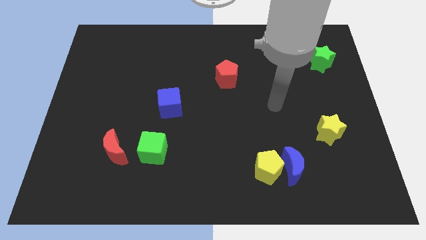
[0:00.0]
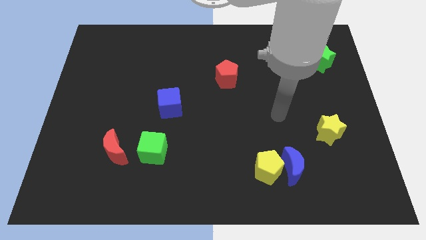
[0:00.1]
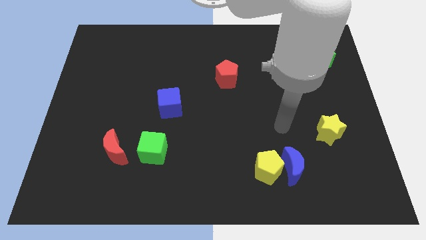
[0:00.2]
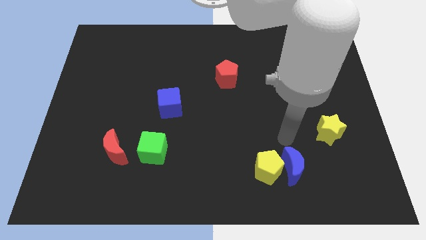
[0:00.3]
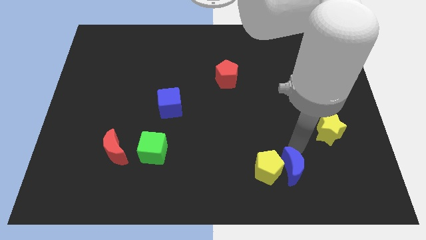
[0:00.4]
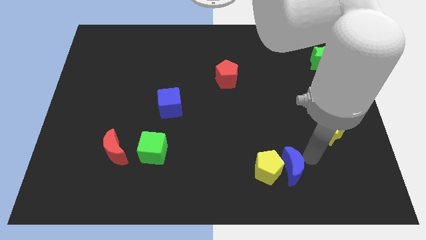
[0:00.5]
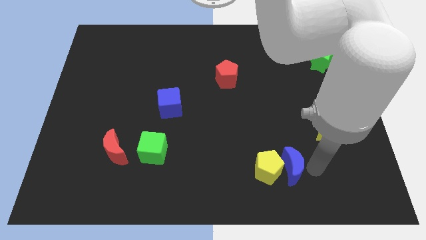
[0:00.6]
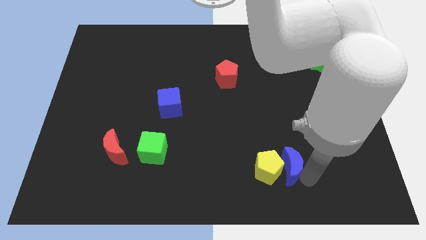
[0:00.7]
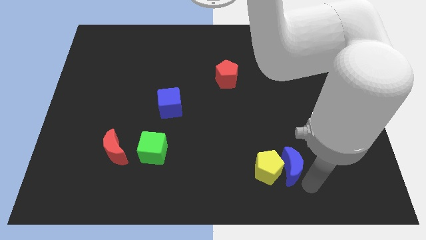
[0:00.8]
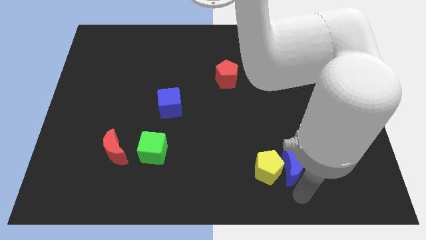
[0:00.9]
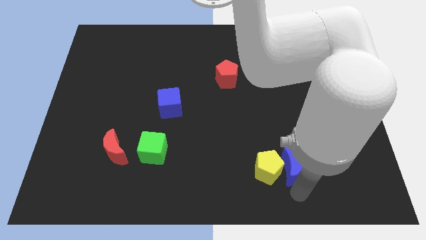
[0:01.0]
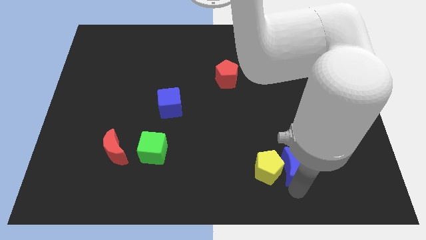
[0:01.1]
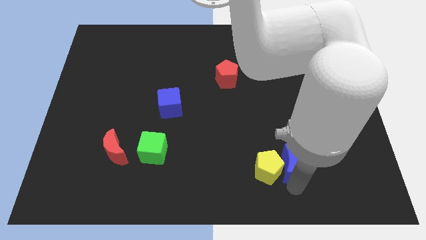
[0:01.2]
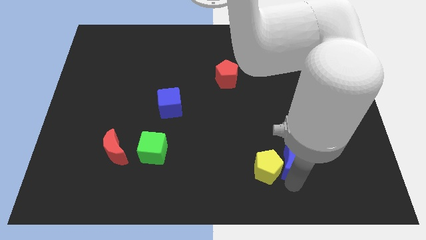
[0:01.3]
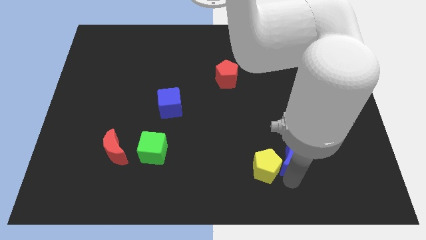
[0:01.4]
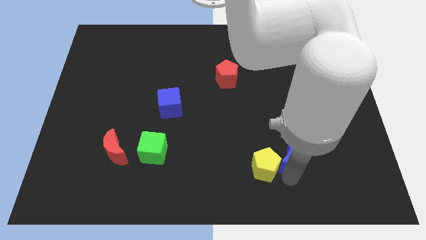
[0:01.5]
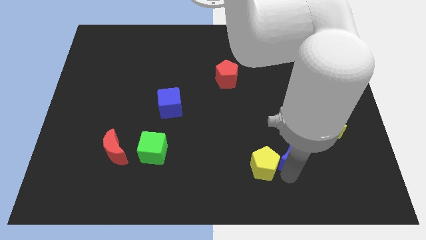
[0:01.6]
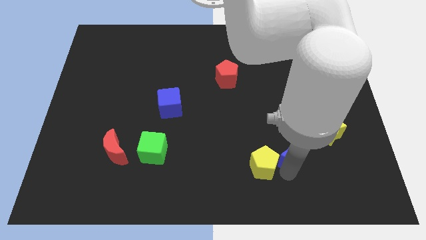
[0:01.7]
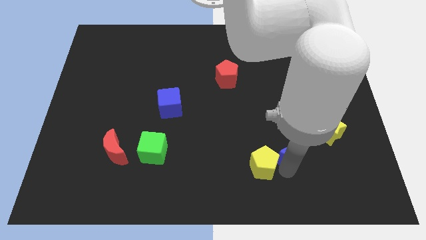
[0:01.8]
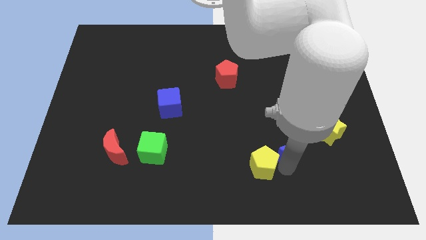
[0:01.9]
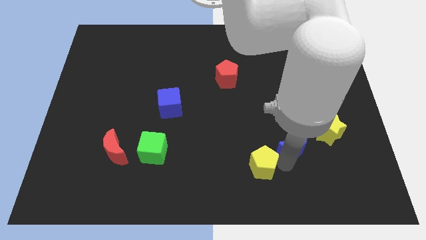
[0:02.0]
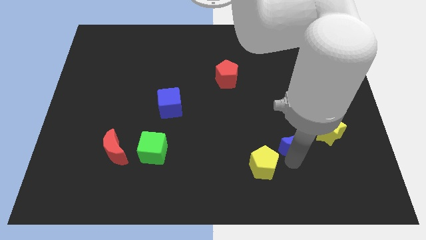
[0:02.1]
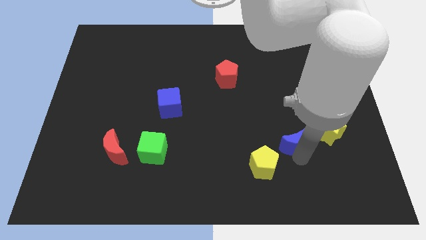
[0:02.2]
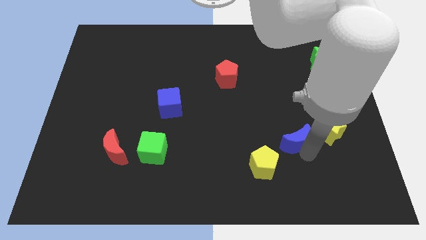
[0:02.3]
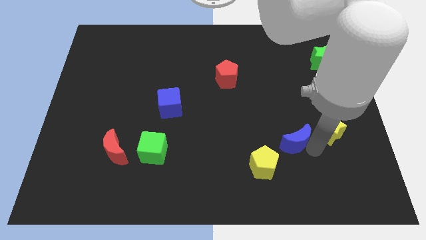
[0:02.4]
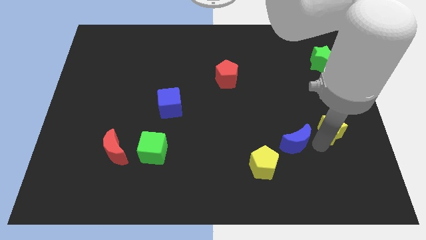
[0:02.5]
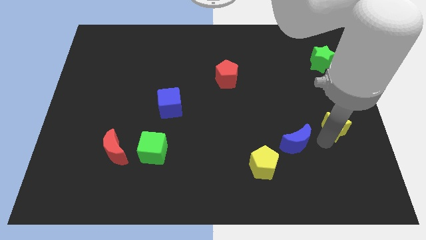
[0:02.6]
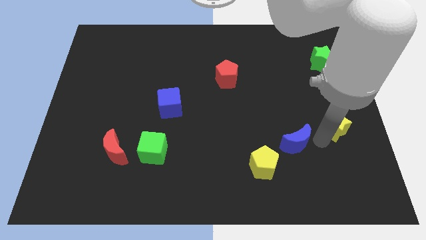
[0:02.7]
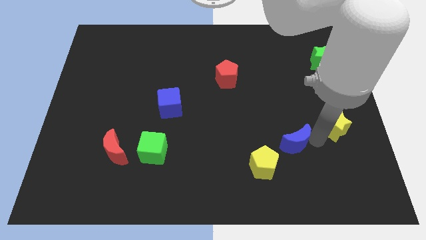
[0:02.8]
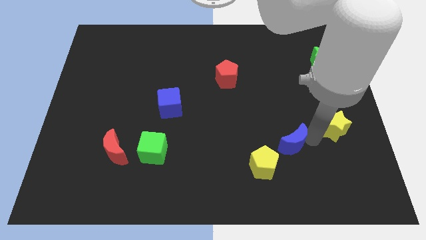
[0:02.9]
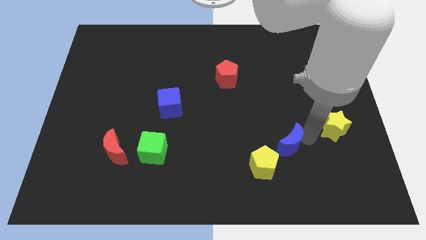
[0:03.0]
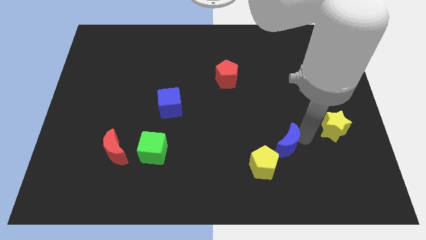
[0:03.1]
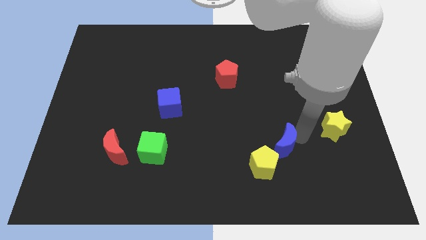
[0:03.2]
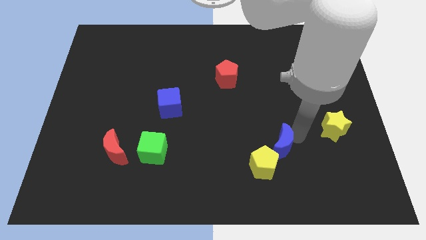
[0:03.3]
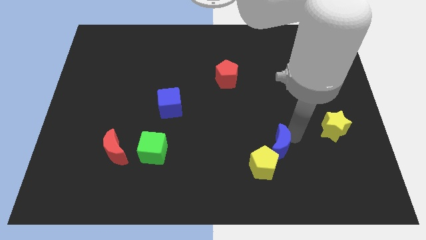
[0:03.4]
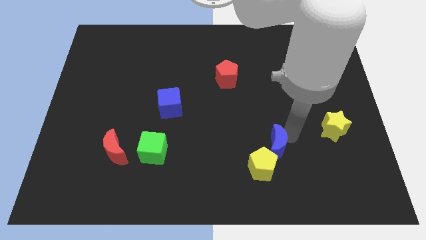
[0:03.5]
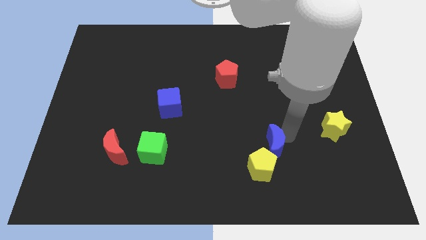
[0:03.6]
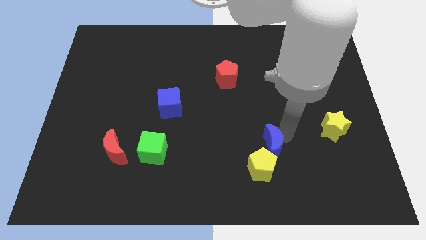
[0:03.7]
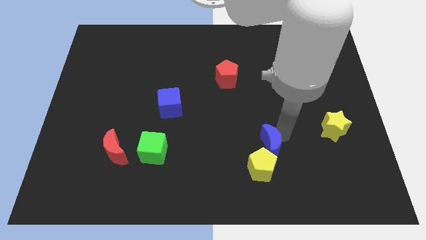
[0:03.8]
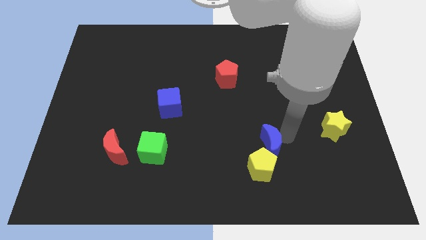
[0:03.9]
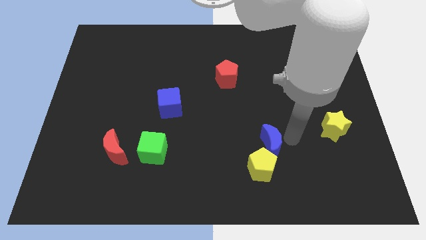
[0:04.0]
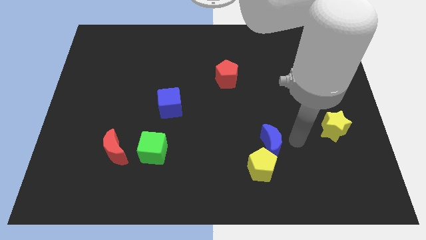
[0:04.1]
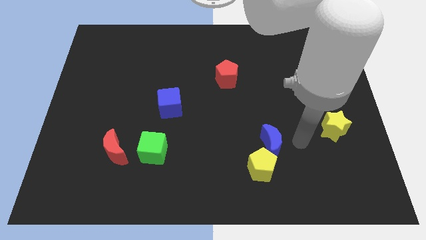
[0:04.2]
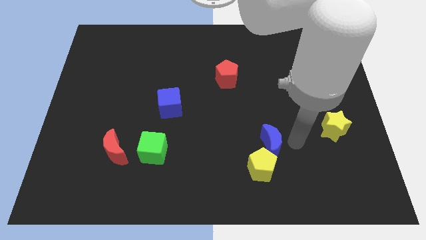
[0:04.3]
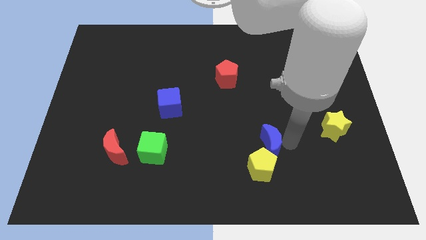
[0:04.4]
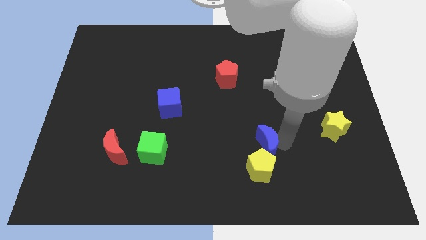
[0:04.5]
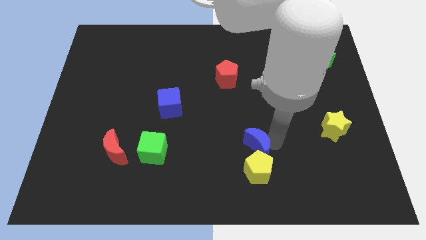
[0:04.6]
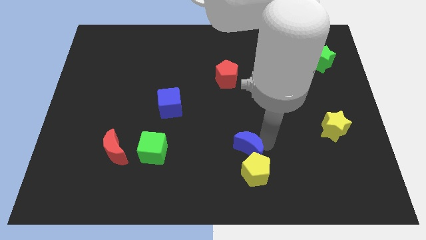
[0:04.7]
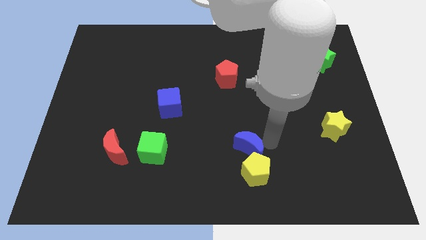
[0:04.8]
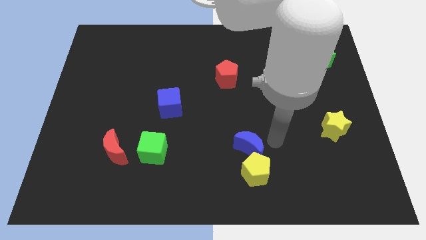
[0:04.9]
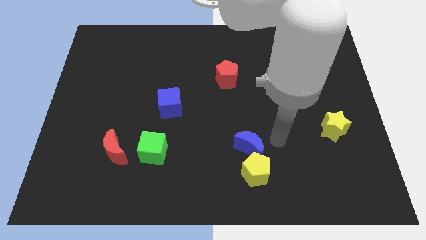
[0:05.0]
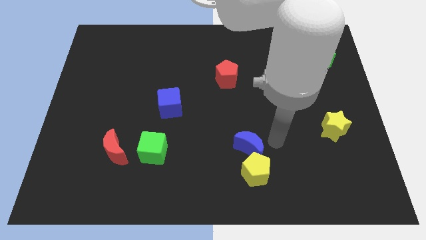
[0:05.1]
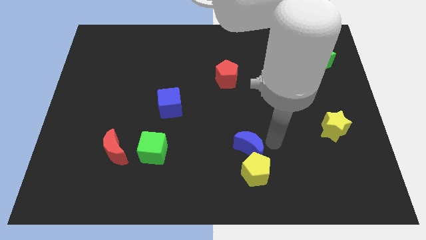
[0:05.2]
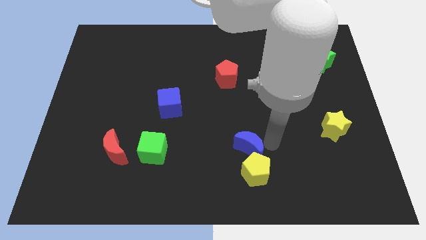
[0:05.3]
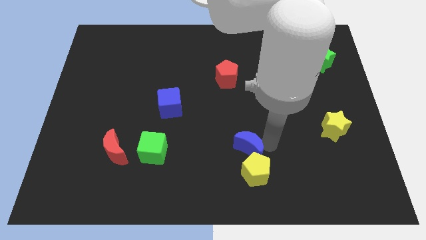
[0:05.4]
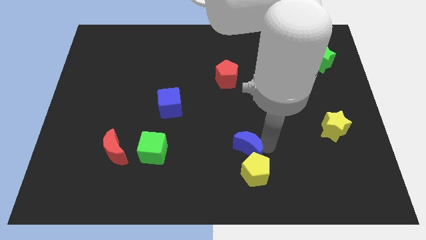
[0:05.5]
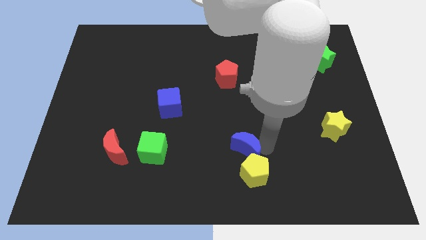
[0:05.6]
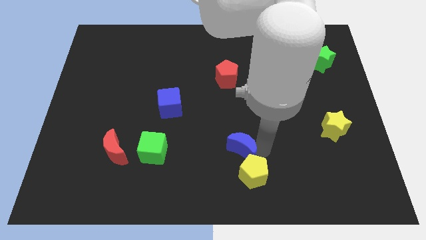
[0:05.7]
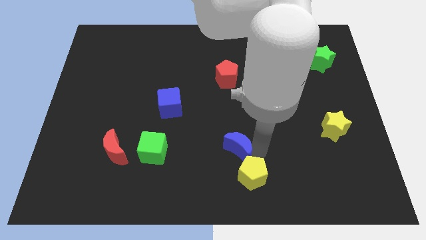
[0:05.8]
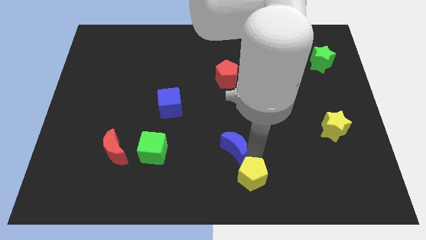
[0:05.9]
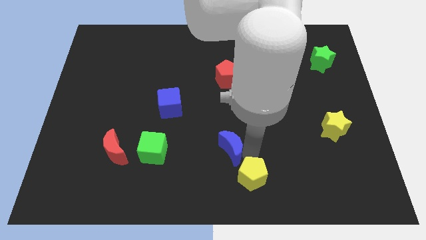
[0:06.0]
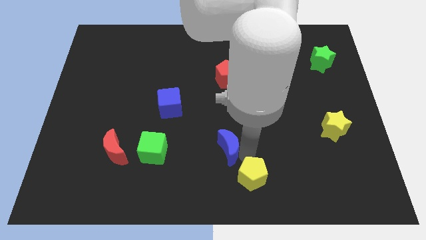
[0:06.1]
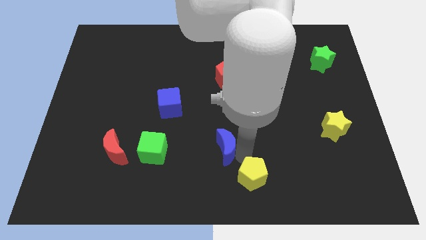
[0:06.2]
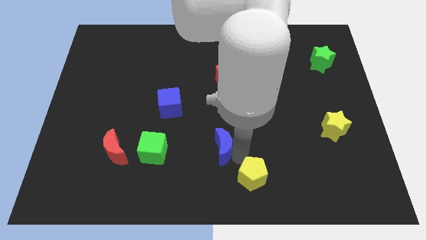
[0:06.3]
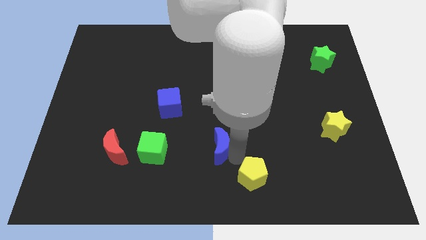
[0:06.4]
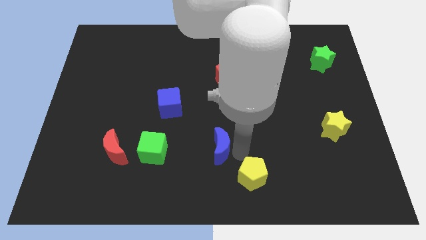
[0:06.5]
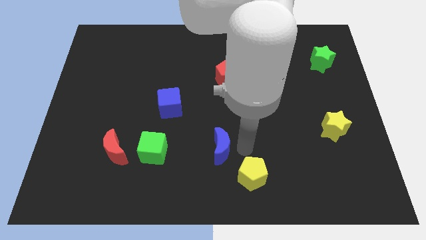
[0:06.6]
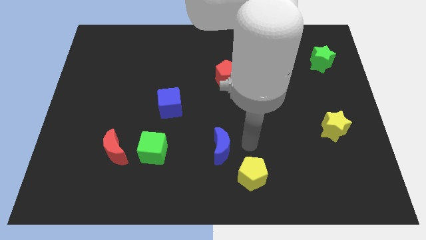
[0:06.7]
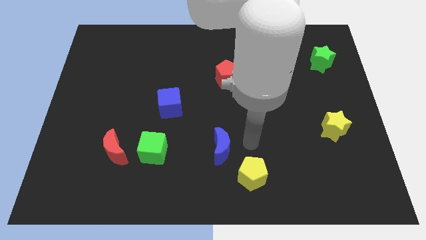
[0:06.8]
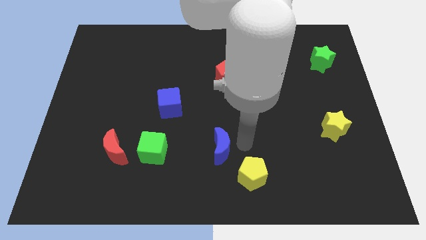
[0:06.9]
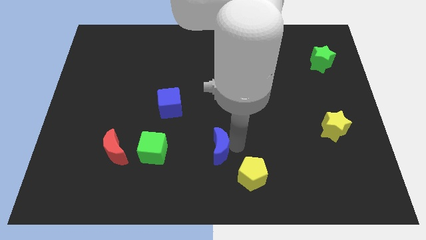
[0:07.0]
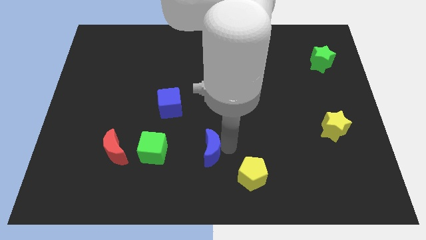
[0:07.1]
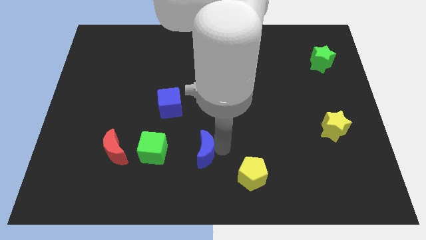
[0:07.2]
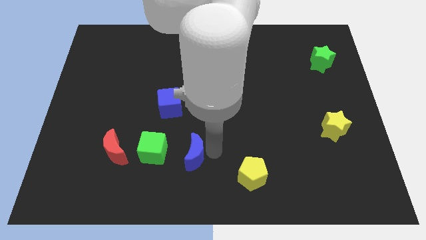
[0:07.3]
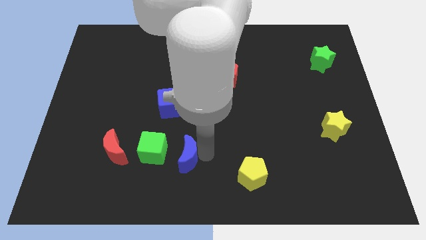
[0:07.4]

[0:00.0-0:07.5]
move the blue moon just right of the red moon
